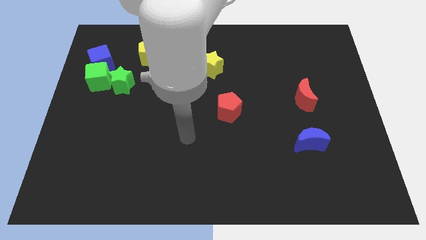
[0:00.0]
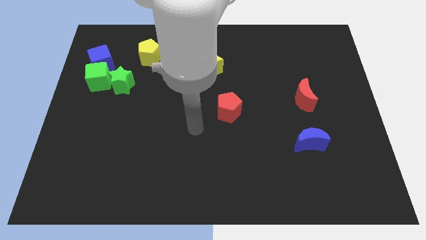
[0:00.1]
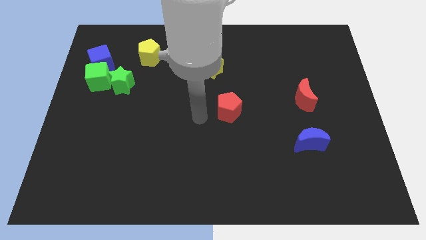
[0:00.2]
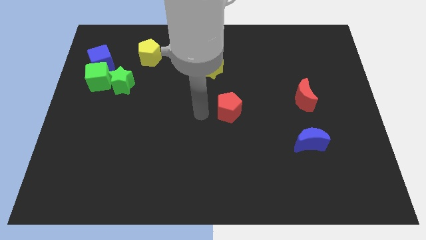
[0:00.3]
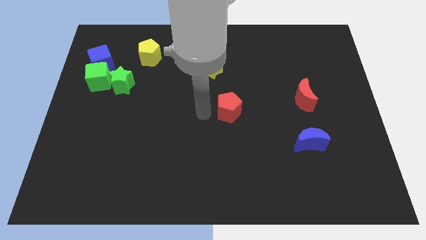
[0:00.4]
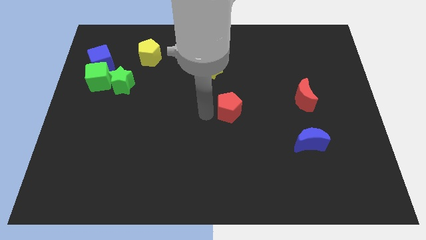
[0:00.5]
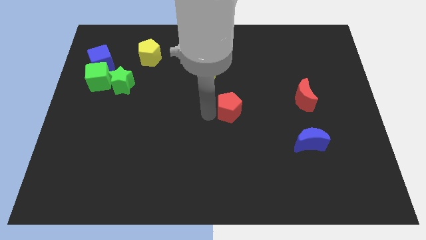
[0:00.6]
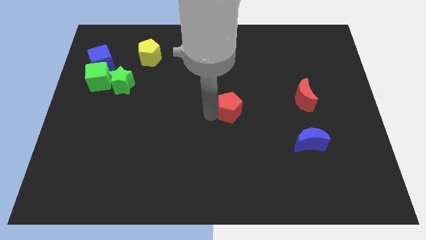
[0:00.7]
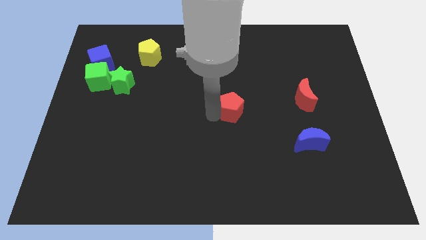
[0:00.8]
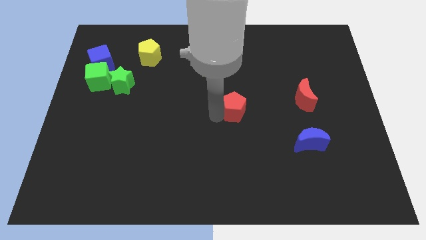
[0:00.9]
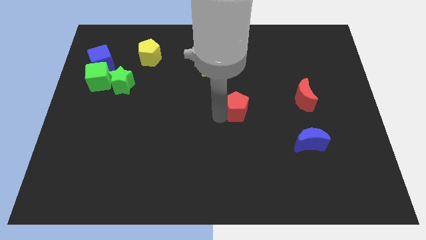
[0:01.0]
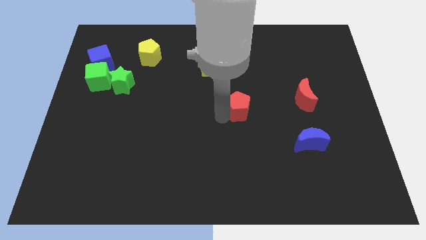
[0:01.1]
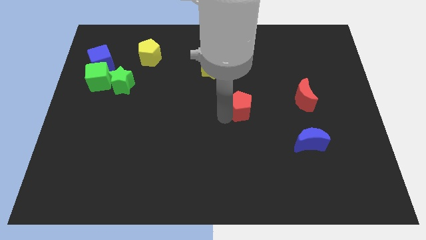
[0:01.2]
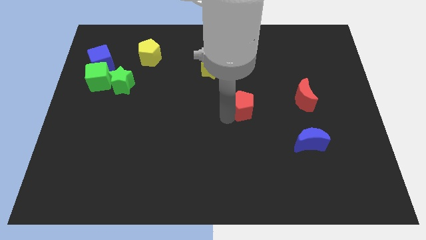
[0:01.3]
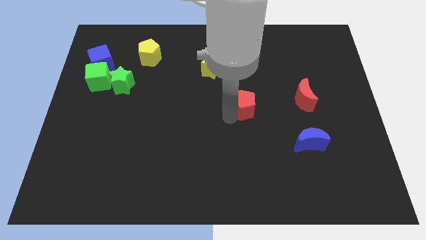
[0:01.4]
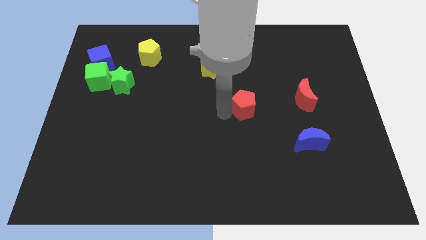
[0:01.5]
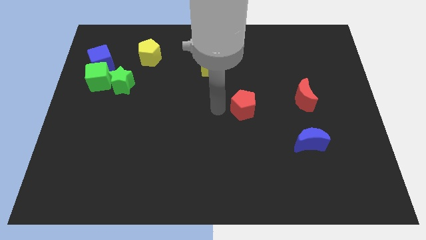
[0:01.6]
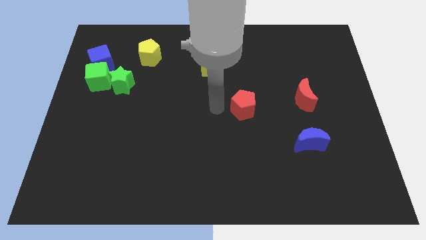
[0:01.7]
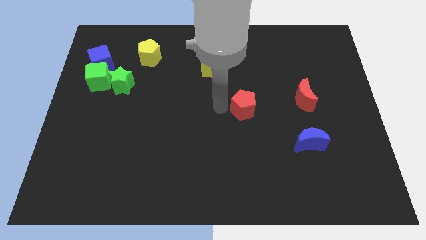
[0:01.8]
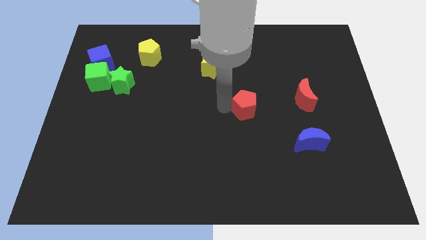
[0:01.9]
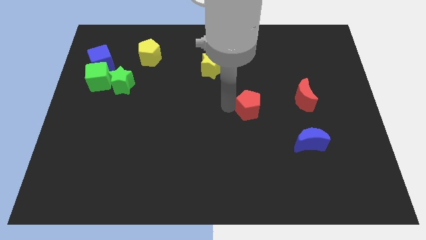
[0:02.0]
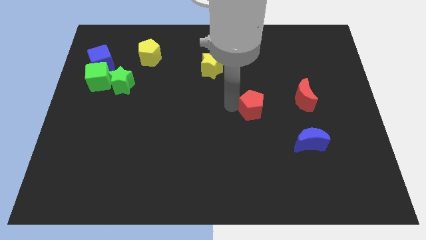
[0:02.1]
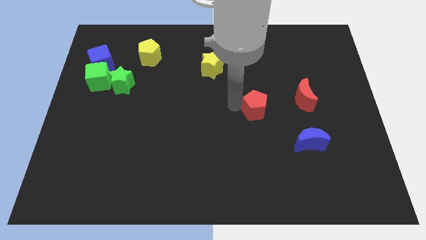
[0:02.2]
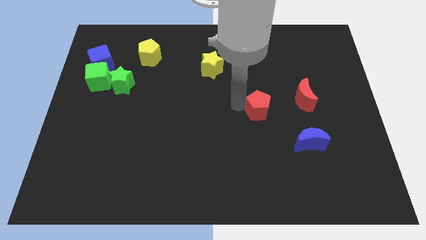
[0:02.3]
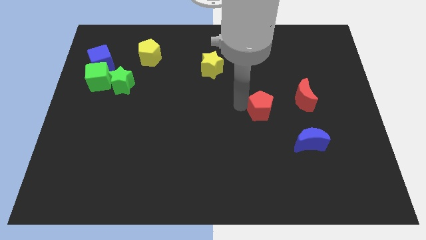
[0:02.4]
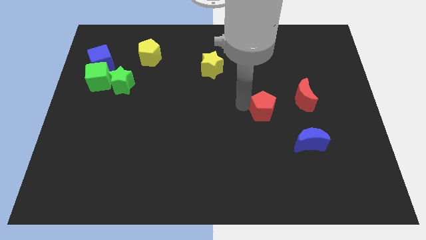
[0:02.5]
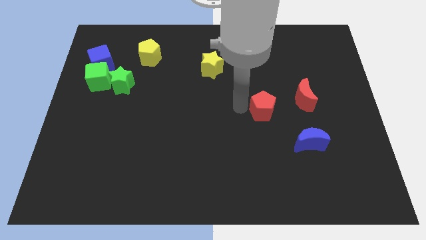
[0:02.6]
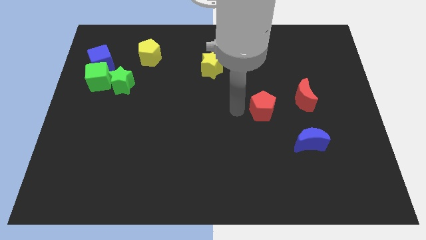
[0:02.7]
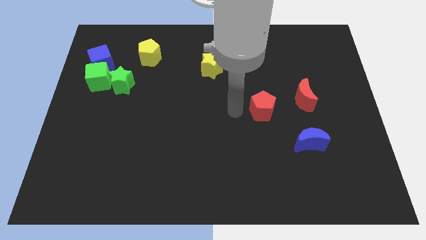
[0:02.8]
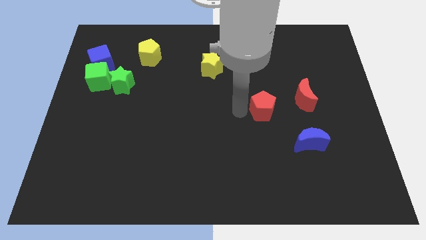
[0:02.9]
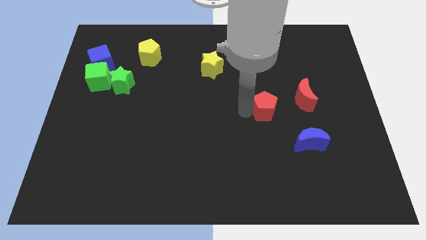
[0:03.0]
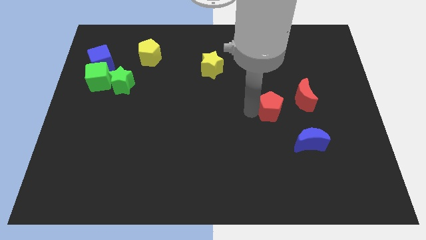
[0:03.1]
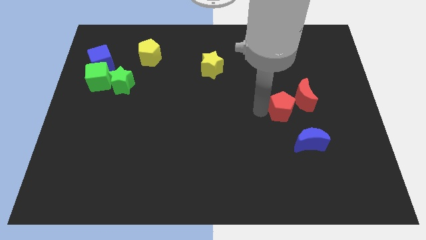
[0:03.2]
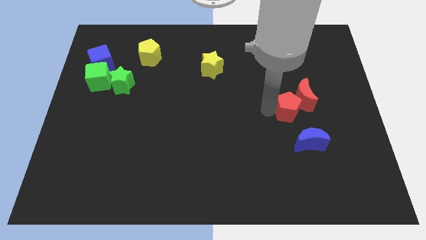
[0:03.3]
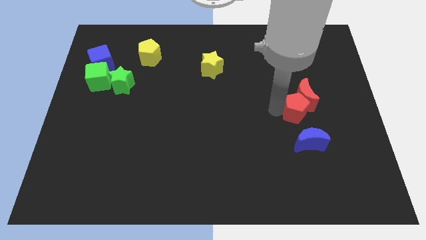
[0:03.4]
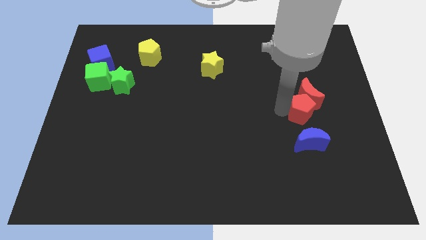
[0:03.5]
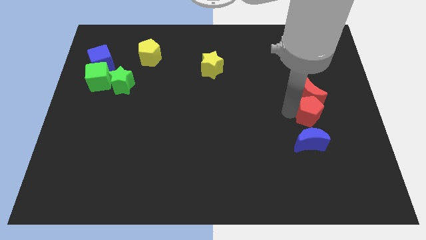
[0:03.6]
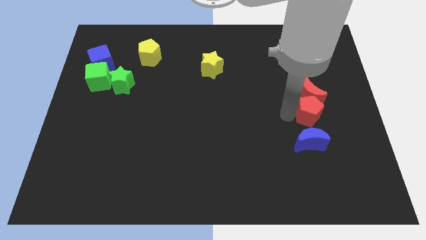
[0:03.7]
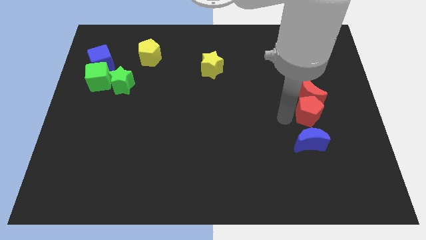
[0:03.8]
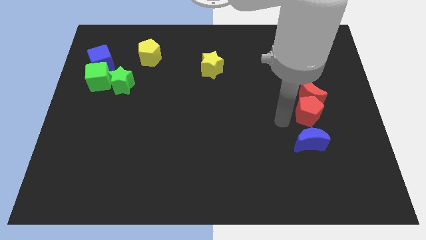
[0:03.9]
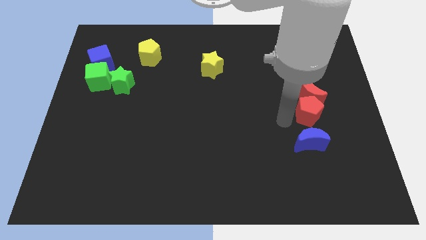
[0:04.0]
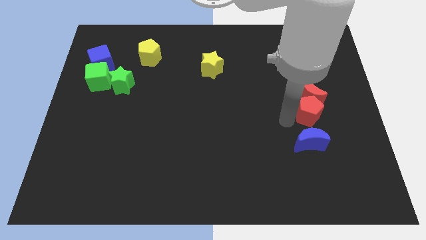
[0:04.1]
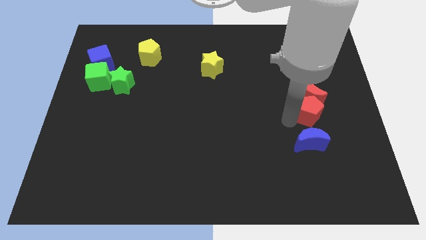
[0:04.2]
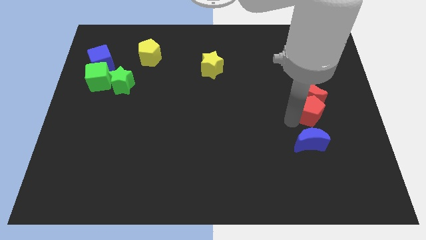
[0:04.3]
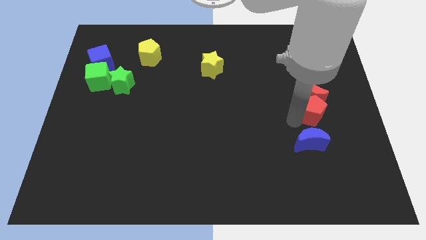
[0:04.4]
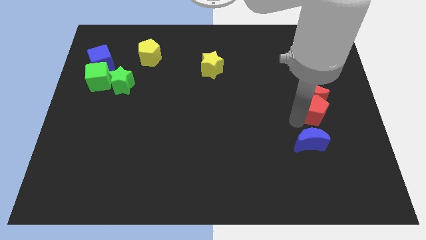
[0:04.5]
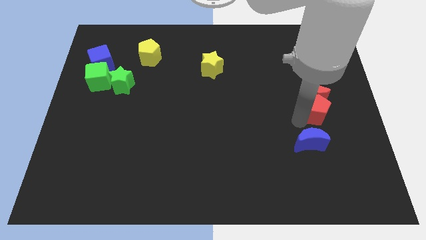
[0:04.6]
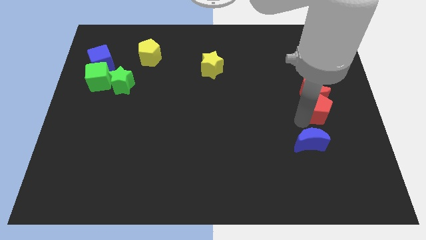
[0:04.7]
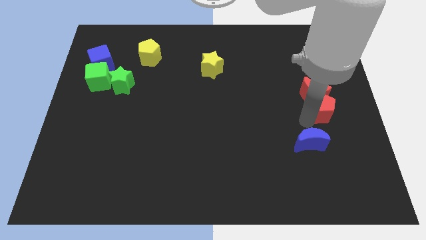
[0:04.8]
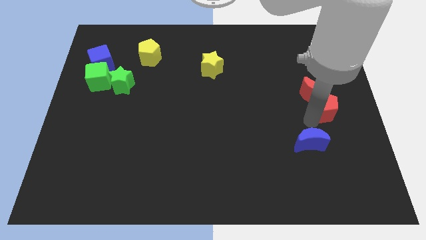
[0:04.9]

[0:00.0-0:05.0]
move the red pentagon to the right side

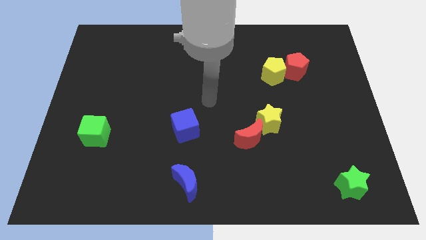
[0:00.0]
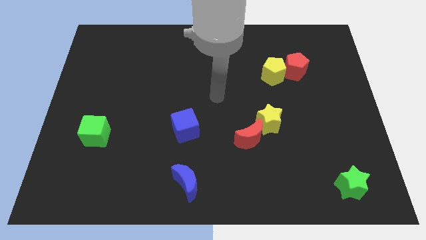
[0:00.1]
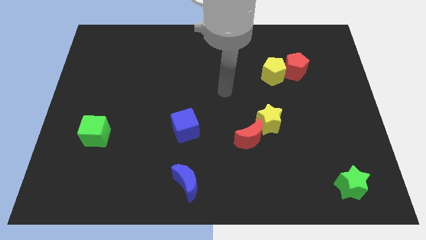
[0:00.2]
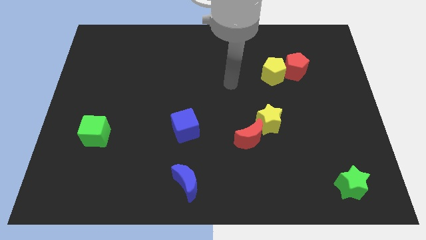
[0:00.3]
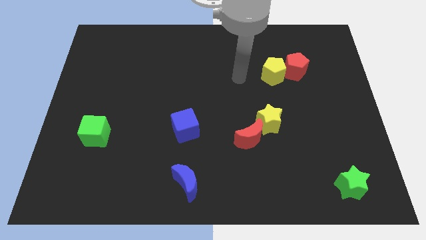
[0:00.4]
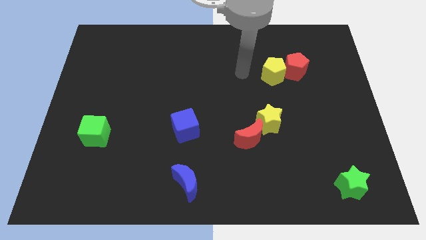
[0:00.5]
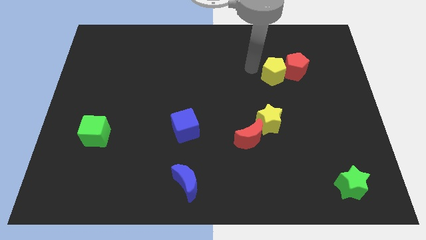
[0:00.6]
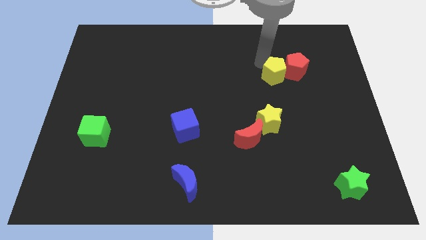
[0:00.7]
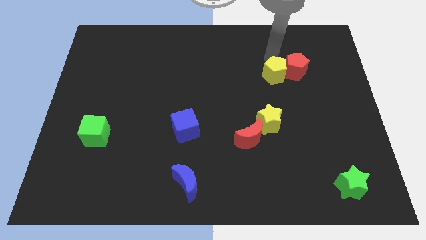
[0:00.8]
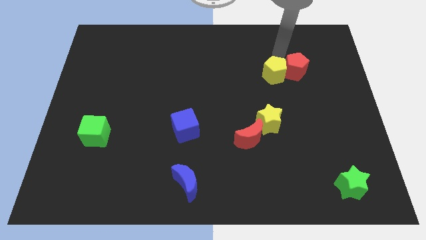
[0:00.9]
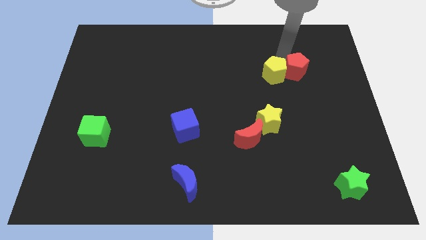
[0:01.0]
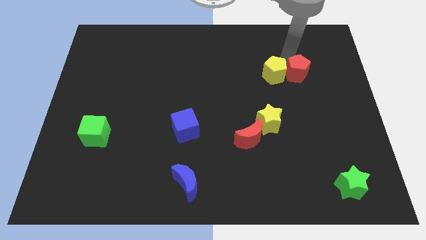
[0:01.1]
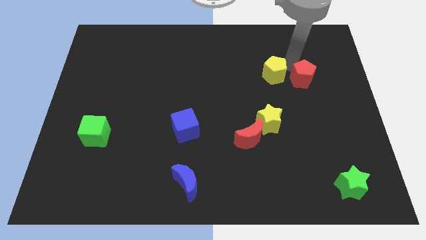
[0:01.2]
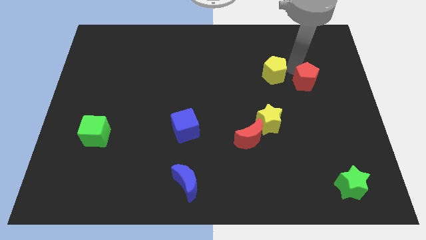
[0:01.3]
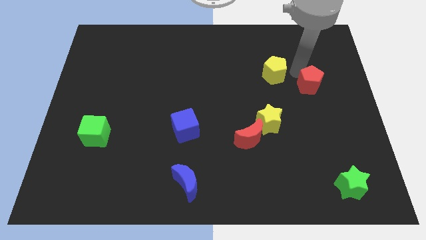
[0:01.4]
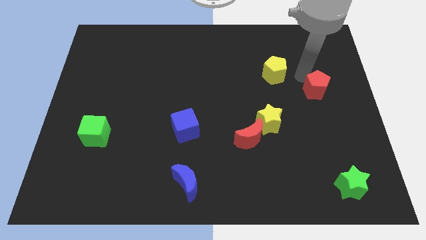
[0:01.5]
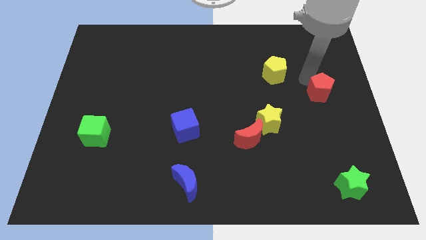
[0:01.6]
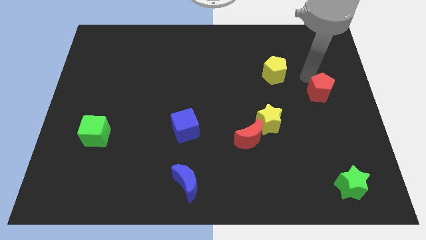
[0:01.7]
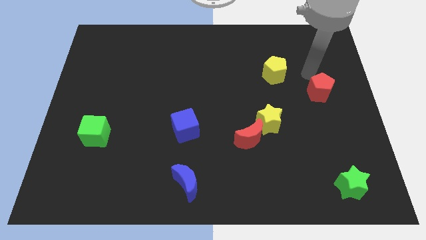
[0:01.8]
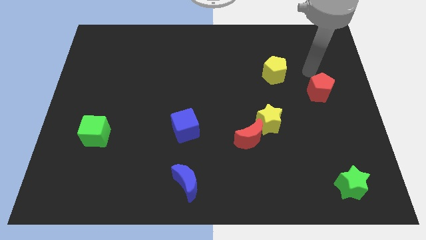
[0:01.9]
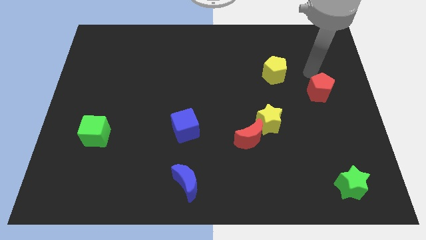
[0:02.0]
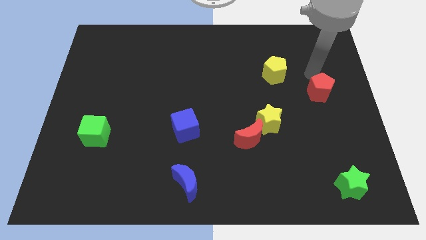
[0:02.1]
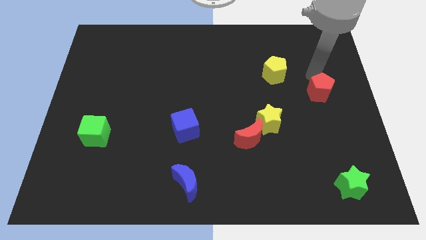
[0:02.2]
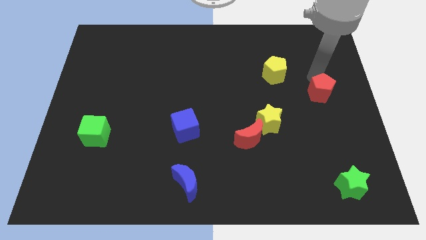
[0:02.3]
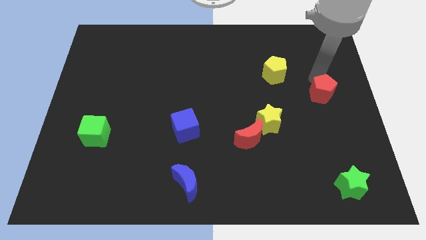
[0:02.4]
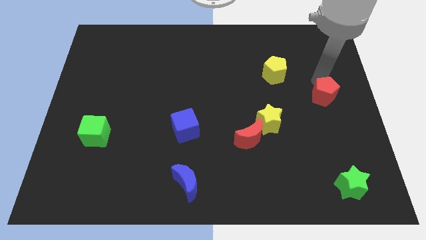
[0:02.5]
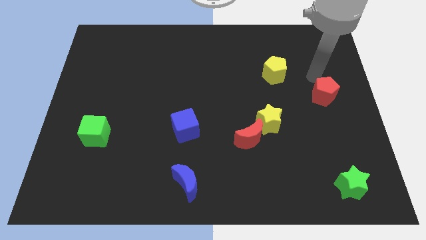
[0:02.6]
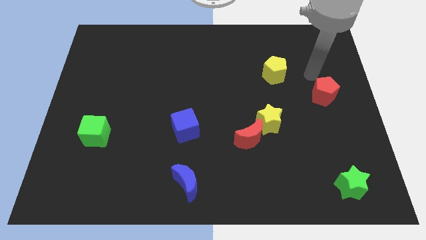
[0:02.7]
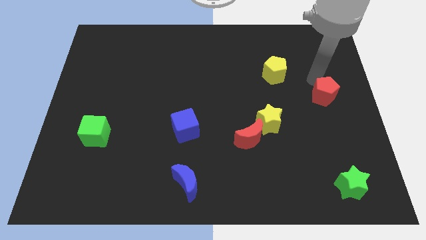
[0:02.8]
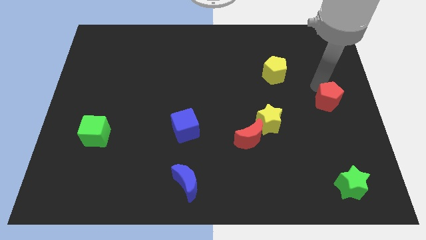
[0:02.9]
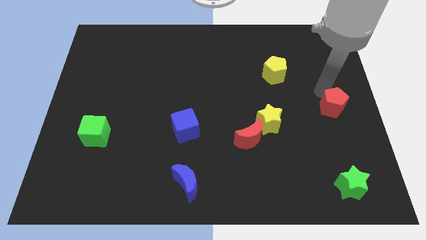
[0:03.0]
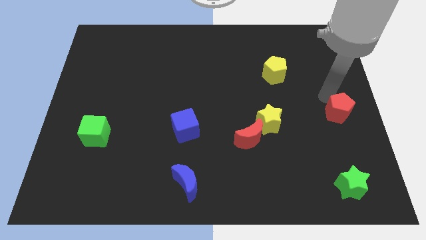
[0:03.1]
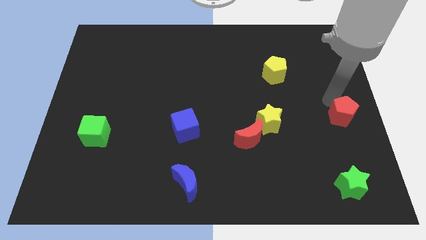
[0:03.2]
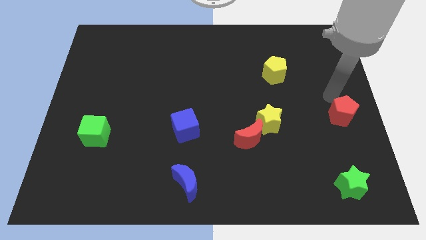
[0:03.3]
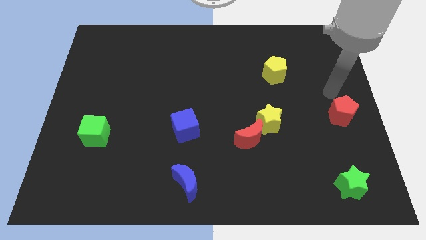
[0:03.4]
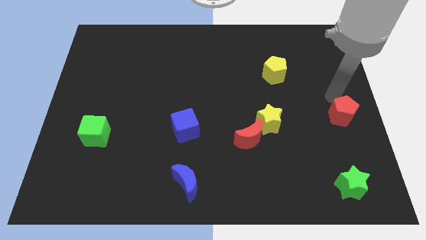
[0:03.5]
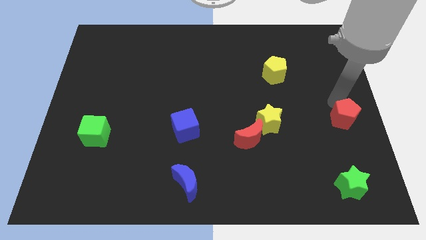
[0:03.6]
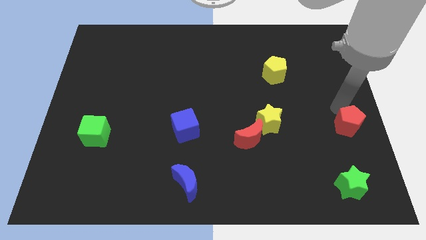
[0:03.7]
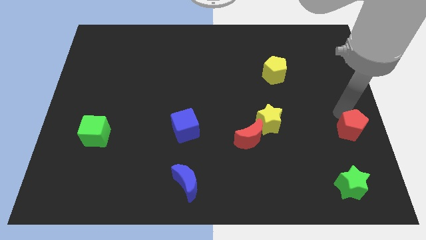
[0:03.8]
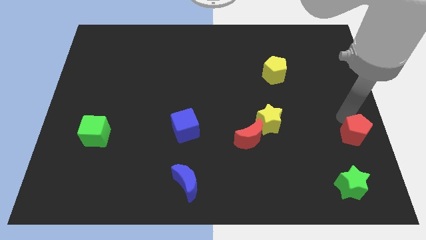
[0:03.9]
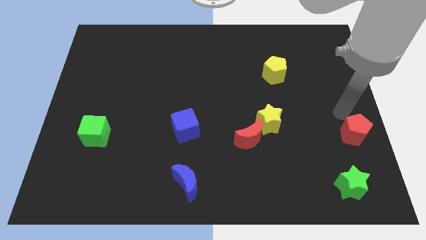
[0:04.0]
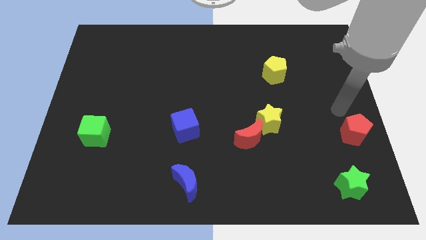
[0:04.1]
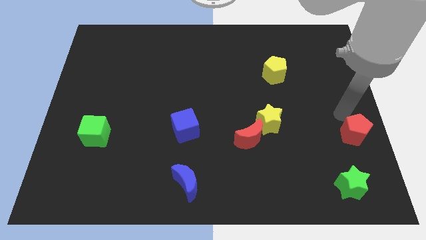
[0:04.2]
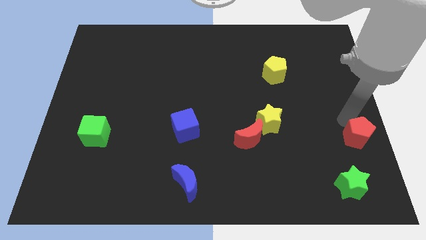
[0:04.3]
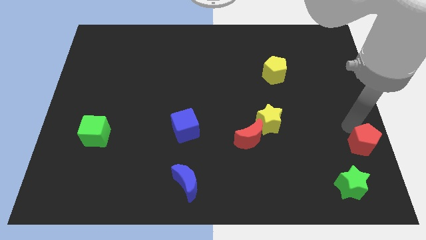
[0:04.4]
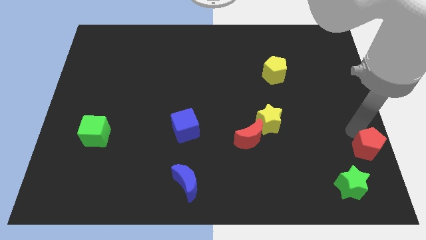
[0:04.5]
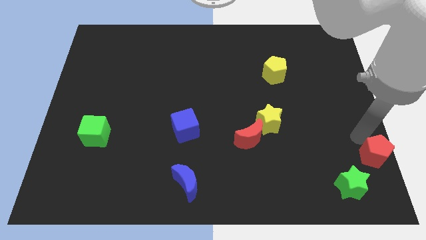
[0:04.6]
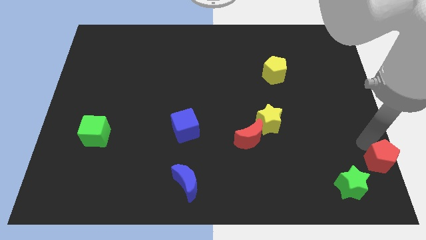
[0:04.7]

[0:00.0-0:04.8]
put the red pentagon to the bottom right corner
